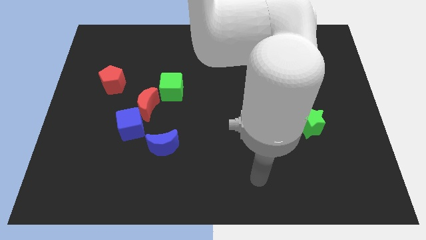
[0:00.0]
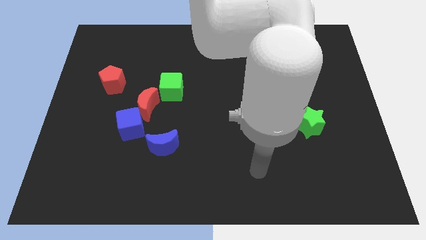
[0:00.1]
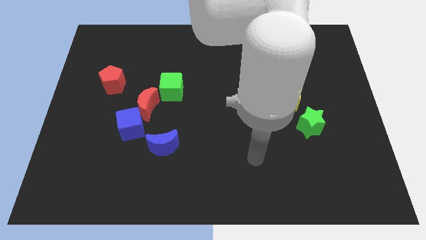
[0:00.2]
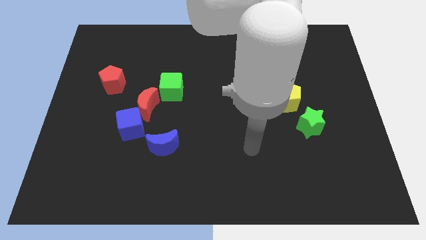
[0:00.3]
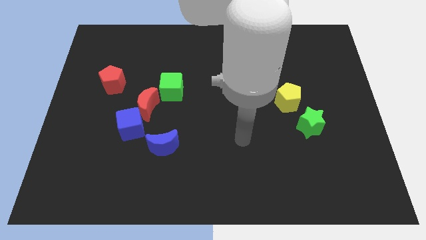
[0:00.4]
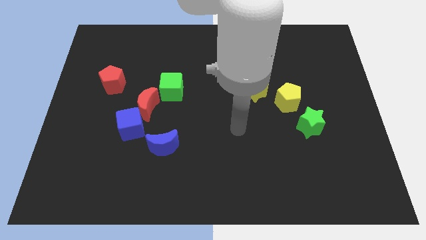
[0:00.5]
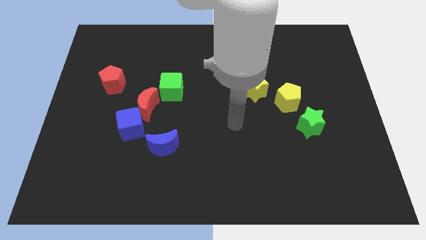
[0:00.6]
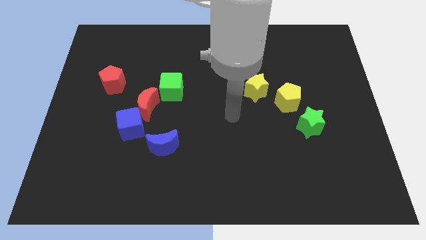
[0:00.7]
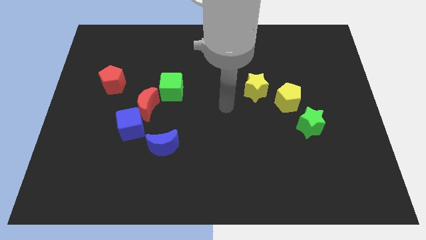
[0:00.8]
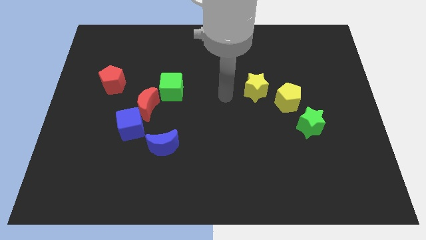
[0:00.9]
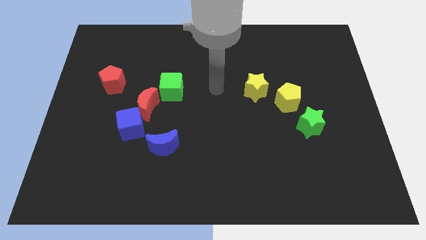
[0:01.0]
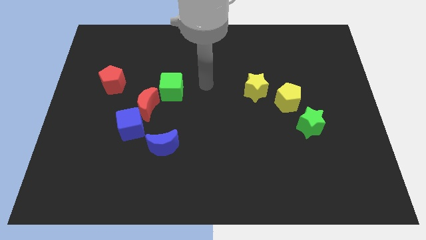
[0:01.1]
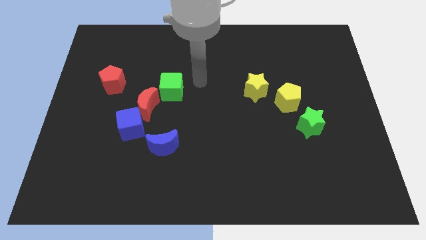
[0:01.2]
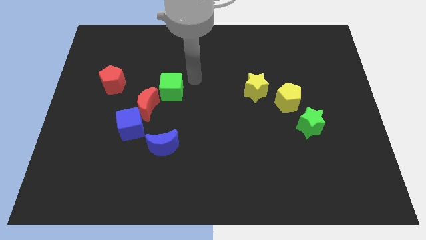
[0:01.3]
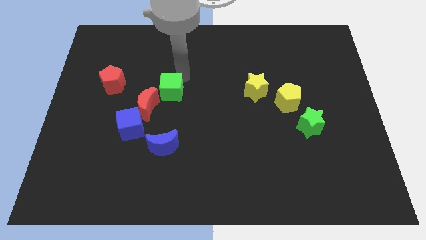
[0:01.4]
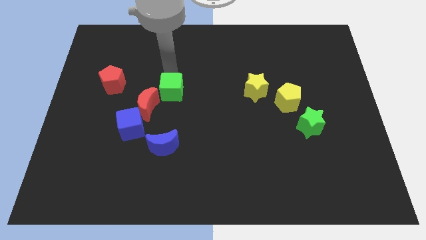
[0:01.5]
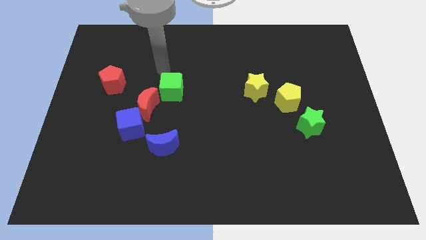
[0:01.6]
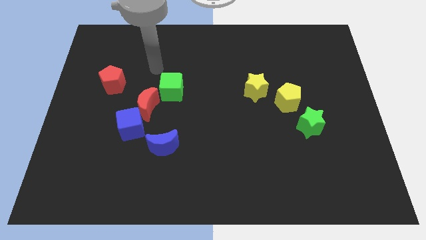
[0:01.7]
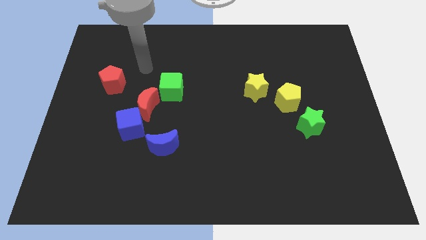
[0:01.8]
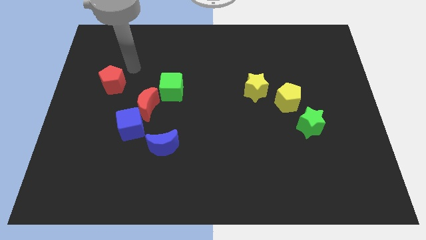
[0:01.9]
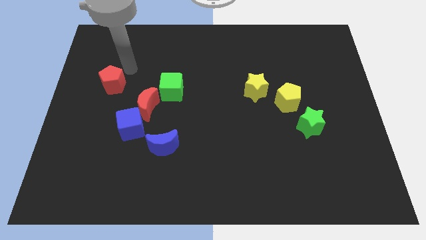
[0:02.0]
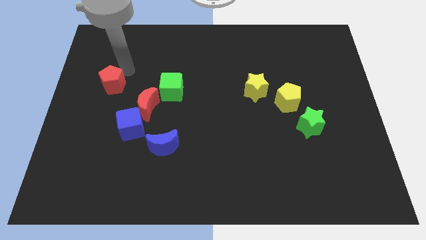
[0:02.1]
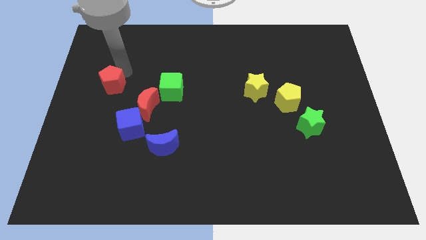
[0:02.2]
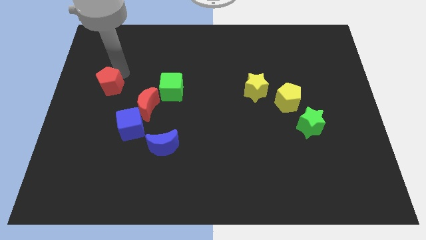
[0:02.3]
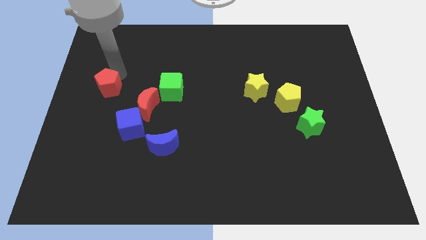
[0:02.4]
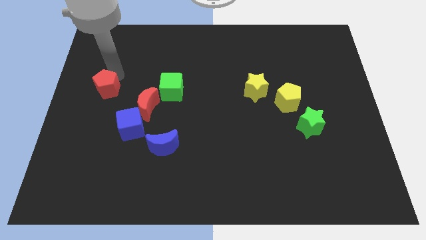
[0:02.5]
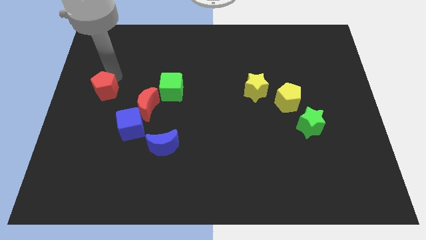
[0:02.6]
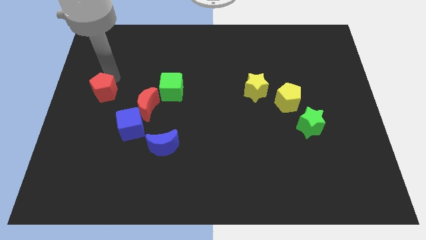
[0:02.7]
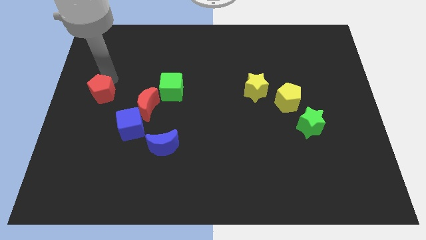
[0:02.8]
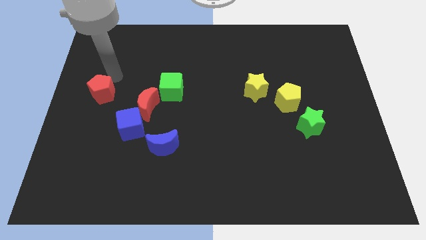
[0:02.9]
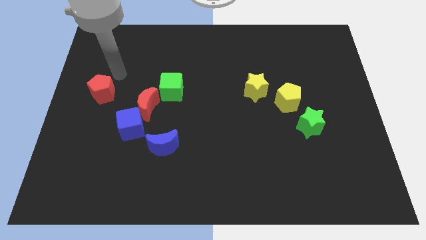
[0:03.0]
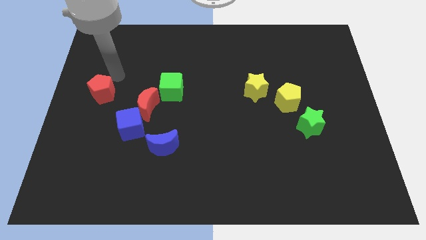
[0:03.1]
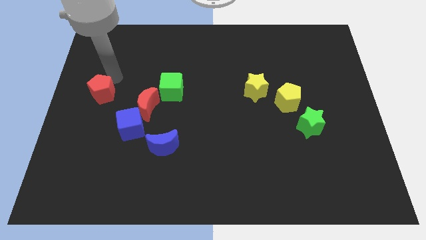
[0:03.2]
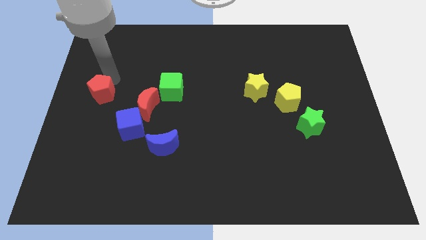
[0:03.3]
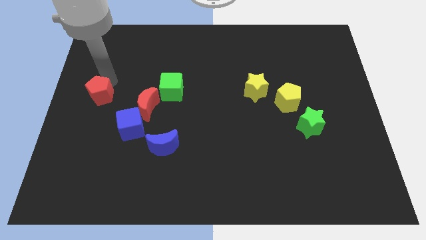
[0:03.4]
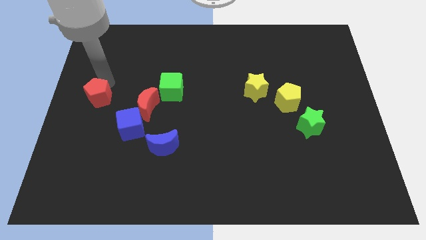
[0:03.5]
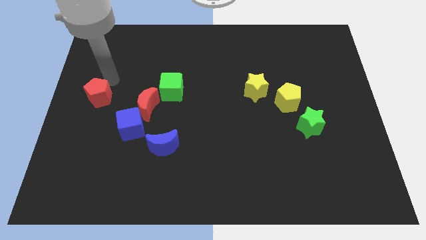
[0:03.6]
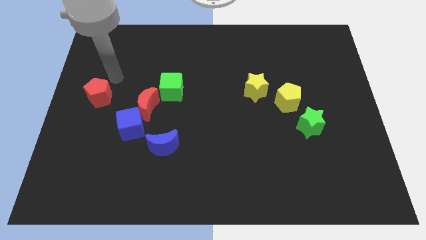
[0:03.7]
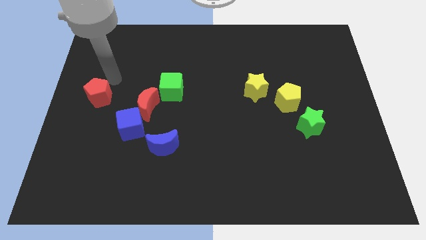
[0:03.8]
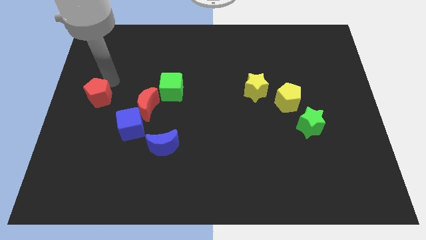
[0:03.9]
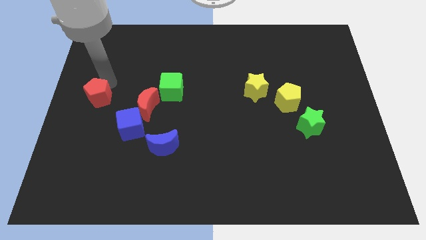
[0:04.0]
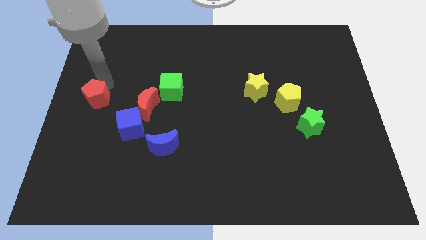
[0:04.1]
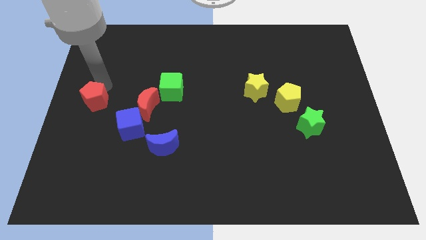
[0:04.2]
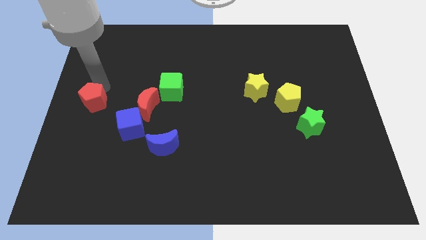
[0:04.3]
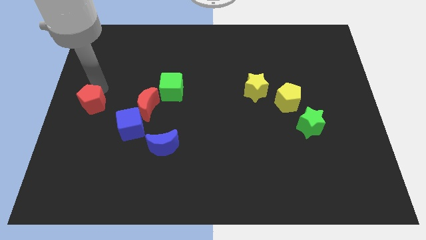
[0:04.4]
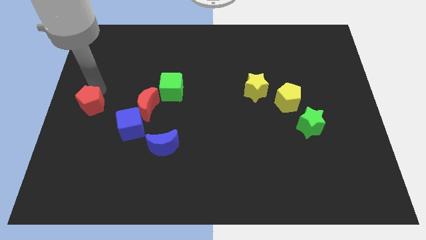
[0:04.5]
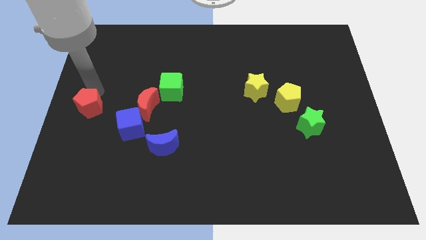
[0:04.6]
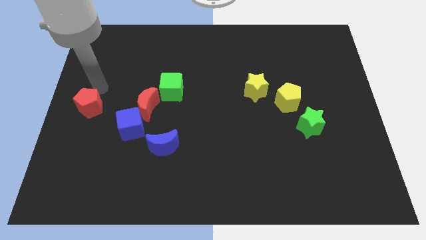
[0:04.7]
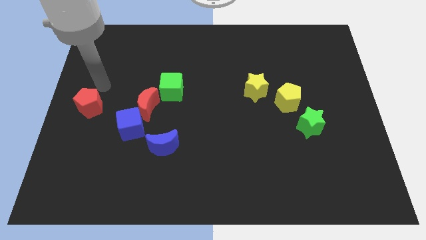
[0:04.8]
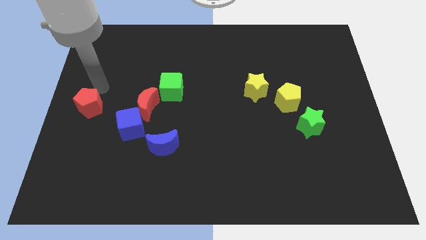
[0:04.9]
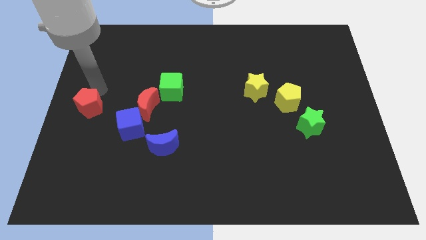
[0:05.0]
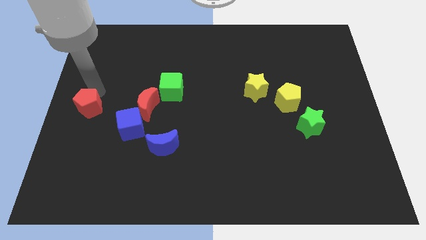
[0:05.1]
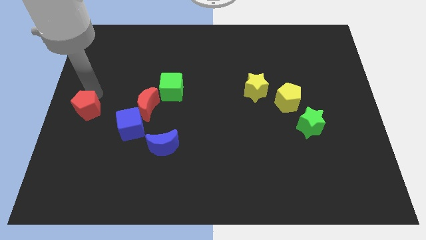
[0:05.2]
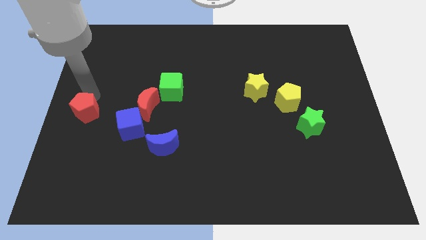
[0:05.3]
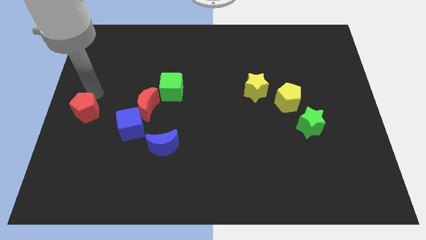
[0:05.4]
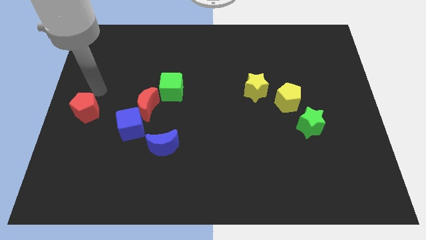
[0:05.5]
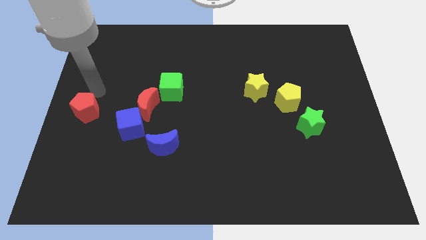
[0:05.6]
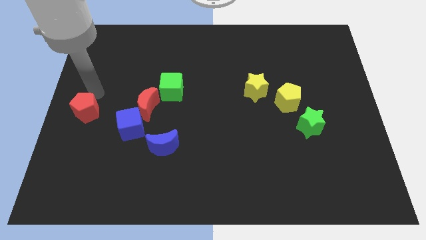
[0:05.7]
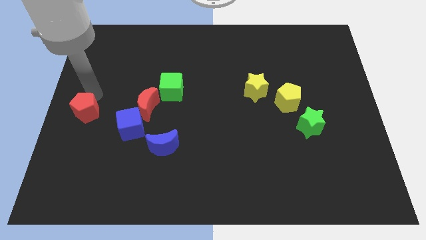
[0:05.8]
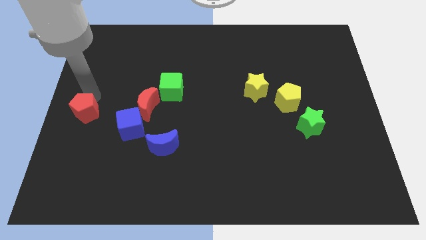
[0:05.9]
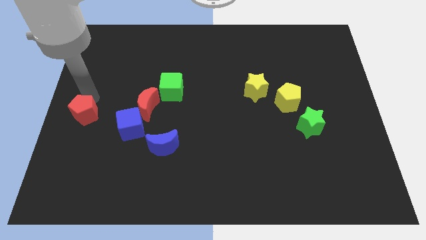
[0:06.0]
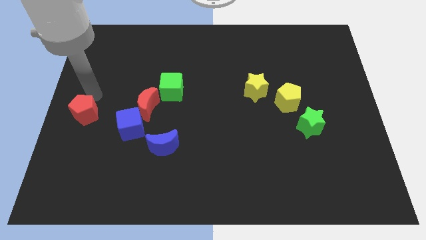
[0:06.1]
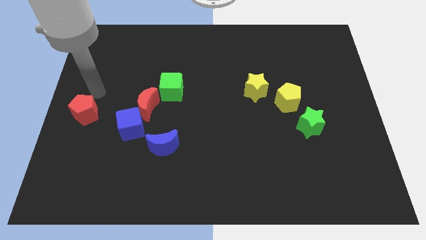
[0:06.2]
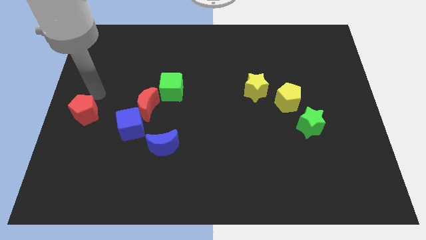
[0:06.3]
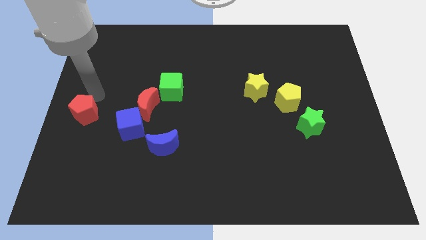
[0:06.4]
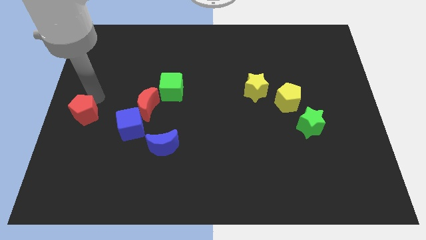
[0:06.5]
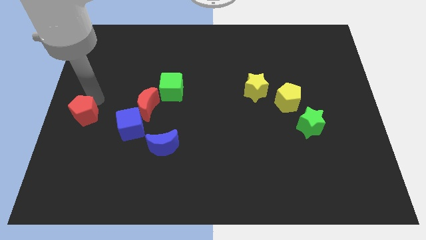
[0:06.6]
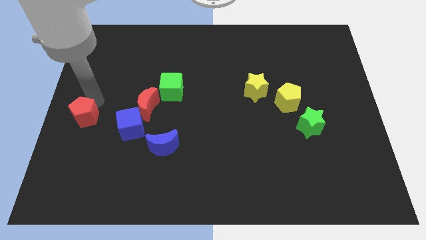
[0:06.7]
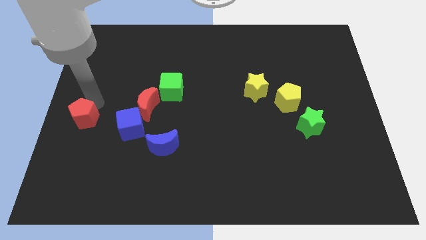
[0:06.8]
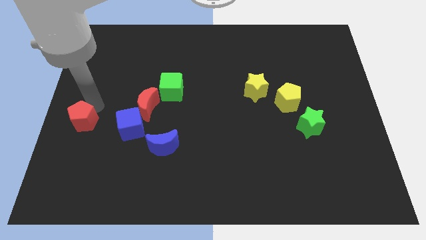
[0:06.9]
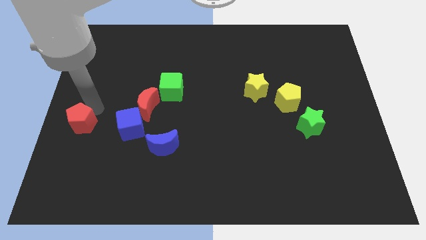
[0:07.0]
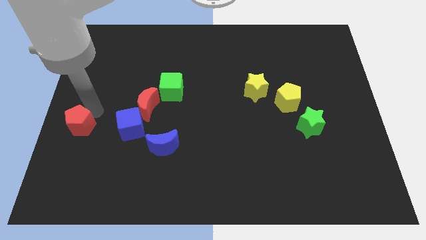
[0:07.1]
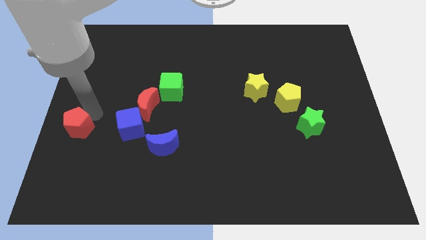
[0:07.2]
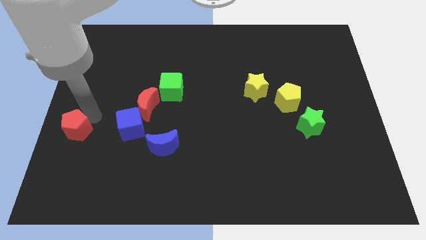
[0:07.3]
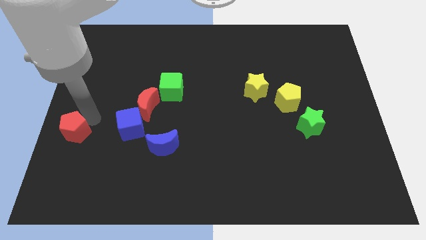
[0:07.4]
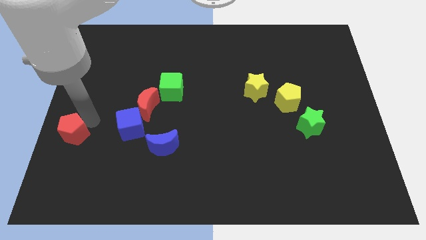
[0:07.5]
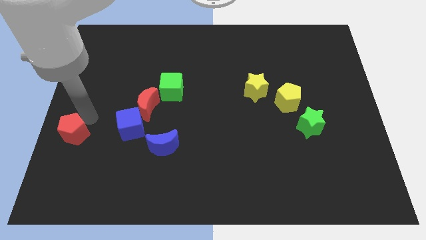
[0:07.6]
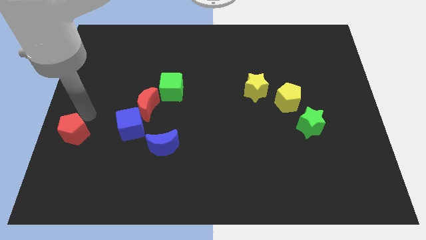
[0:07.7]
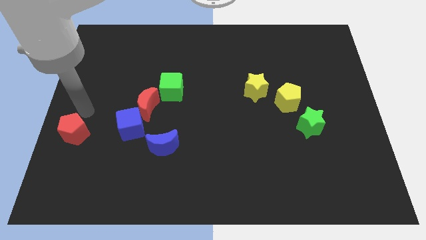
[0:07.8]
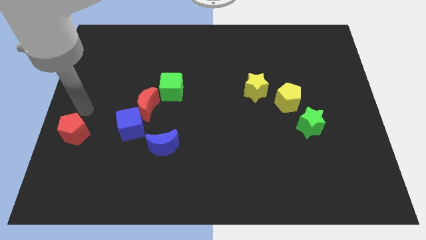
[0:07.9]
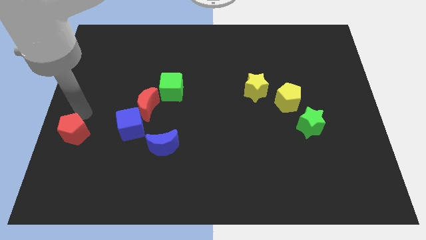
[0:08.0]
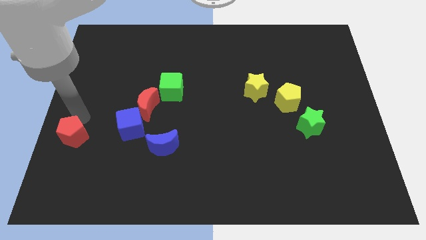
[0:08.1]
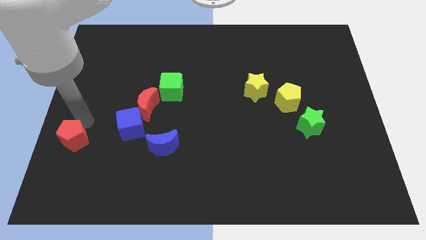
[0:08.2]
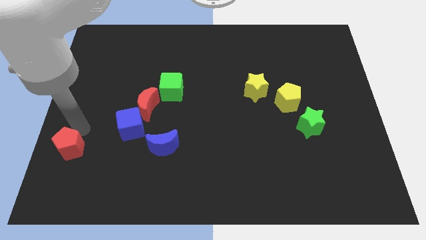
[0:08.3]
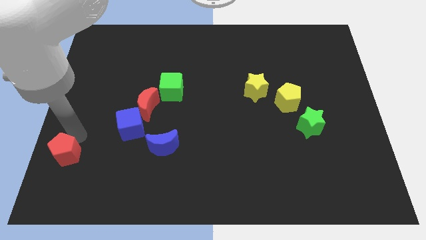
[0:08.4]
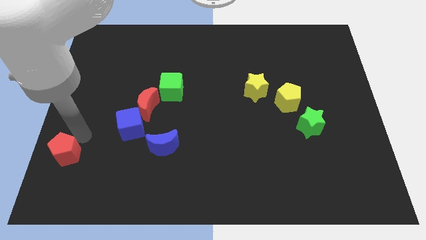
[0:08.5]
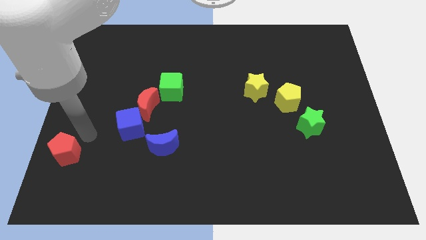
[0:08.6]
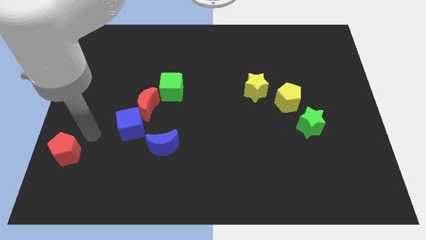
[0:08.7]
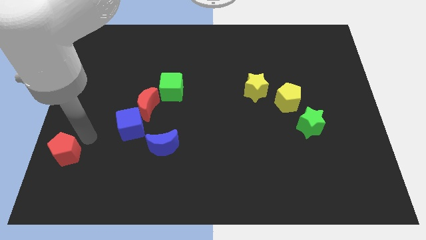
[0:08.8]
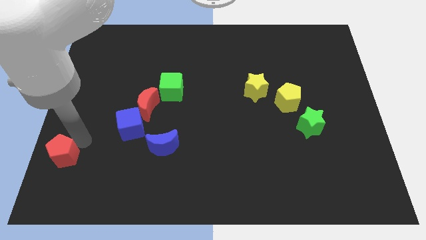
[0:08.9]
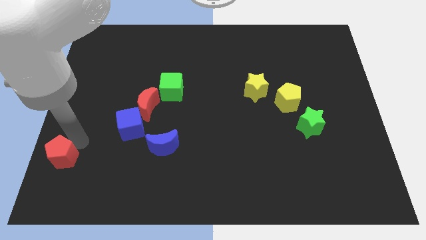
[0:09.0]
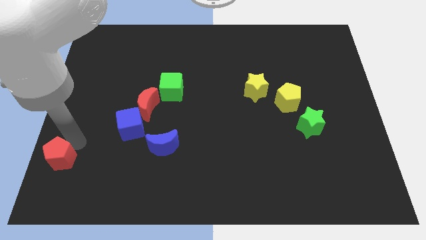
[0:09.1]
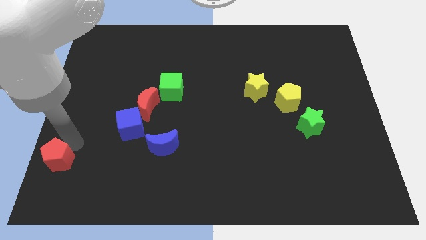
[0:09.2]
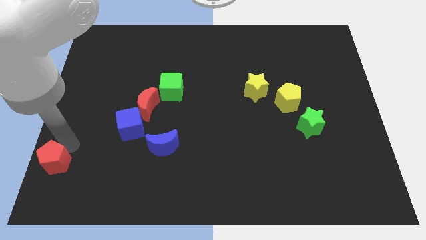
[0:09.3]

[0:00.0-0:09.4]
move the red pentagon to the bottom left corner
